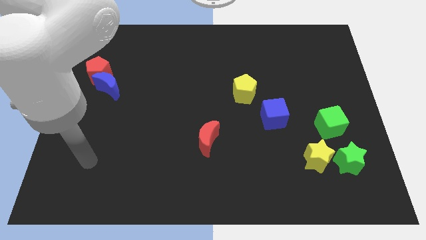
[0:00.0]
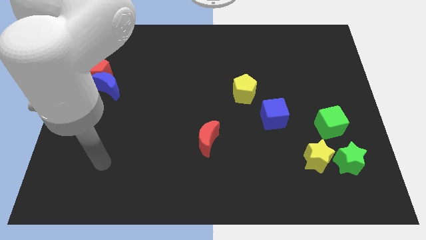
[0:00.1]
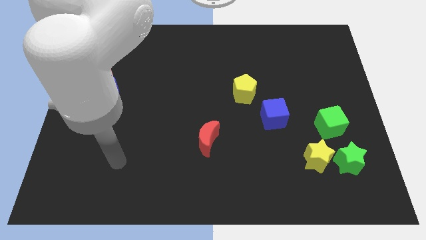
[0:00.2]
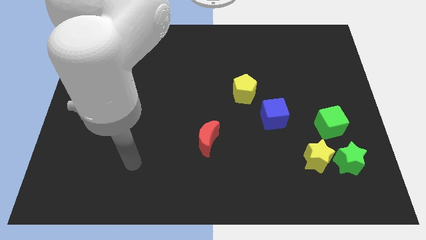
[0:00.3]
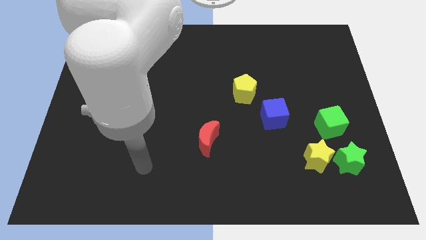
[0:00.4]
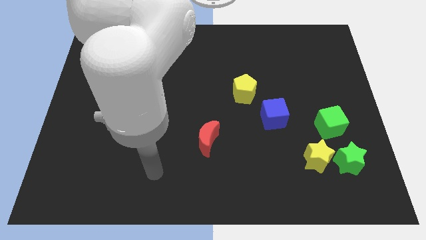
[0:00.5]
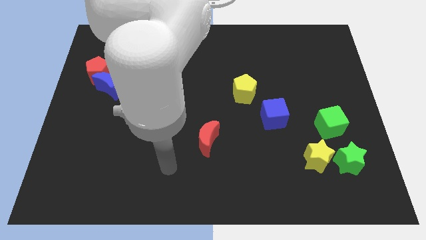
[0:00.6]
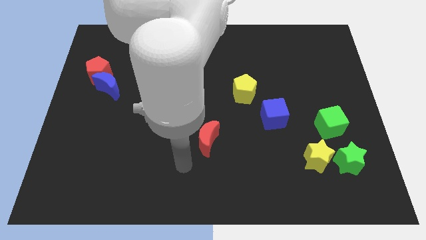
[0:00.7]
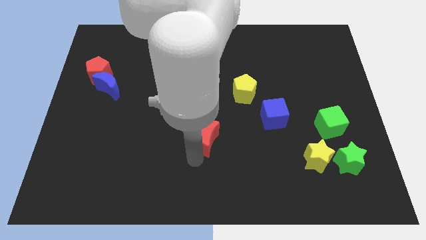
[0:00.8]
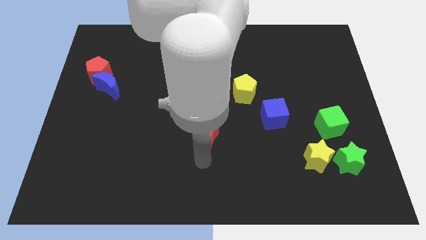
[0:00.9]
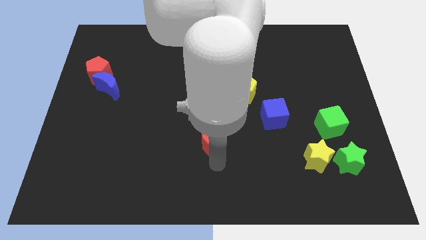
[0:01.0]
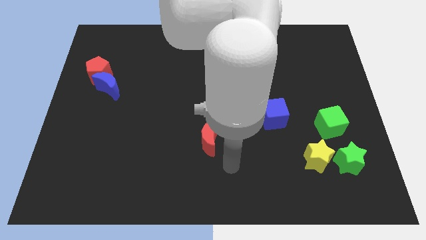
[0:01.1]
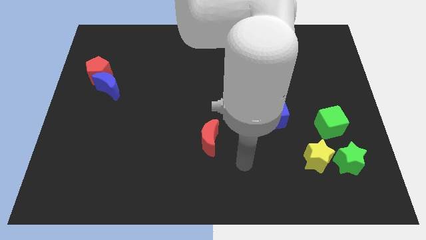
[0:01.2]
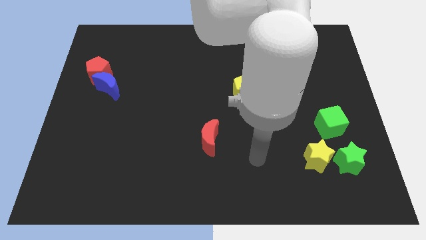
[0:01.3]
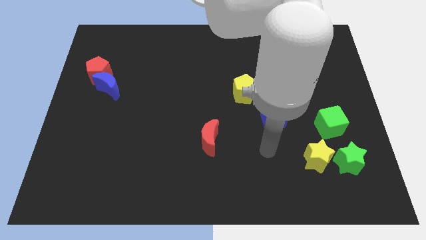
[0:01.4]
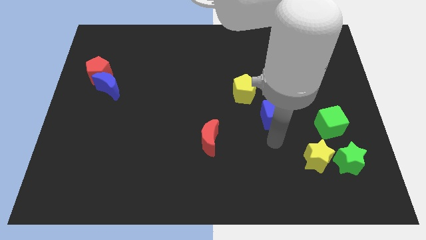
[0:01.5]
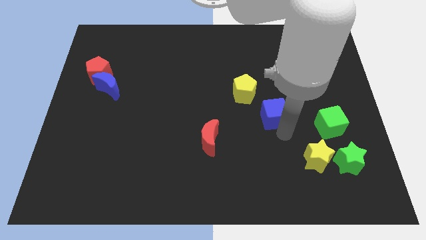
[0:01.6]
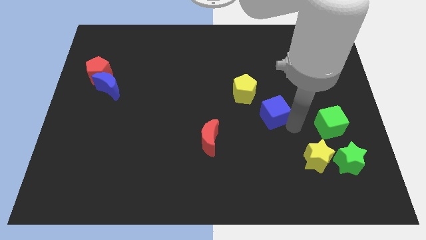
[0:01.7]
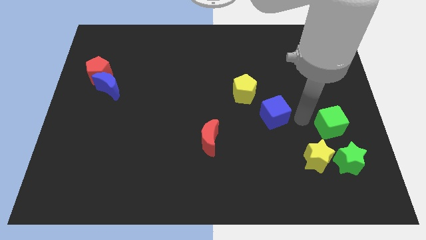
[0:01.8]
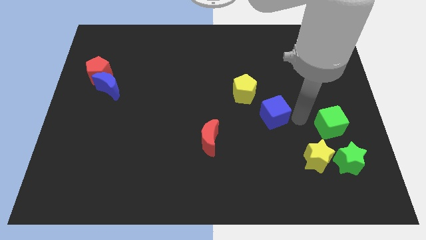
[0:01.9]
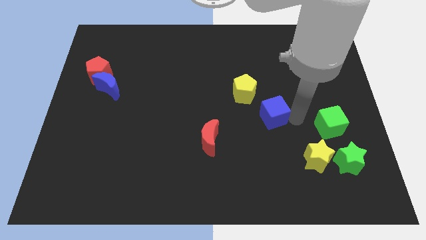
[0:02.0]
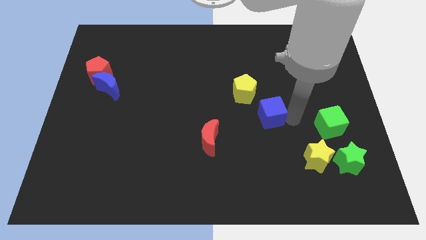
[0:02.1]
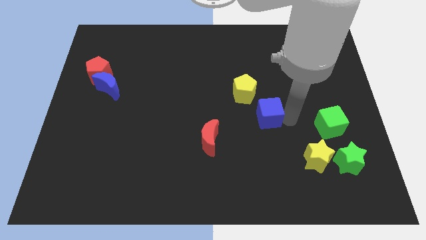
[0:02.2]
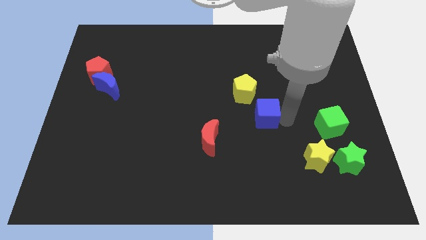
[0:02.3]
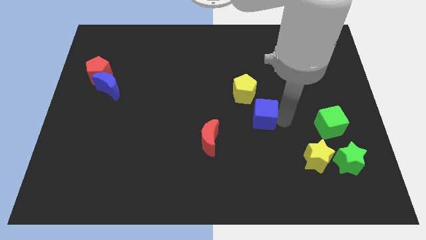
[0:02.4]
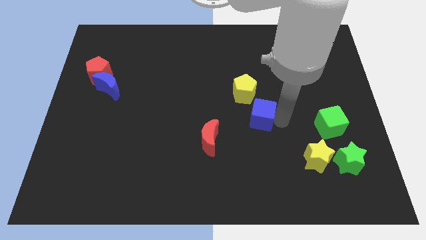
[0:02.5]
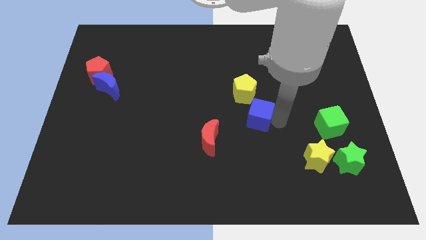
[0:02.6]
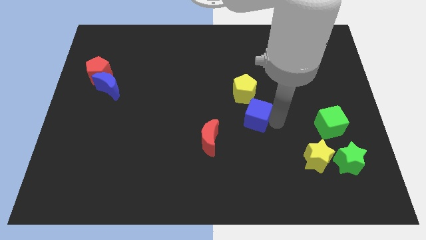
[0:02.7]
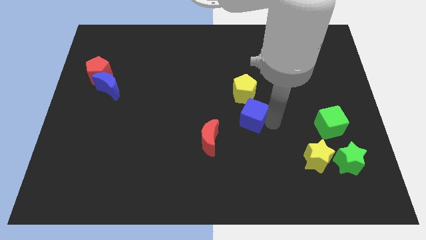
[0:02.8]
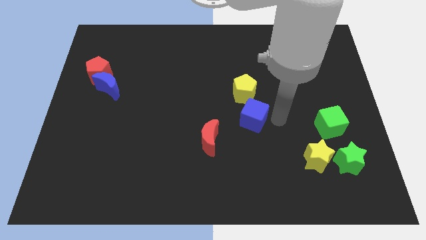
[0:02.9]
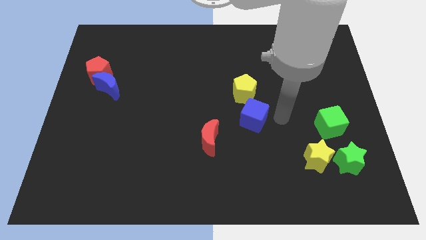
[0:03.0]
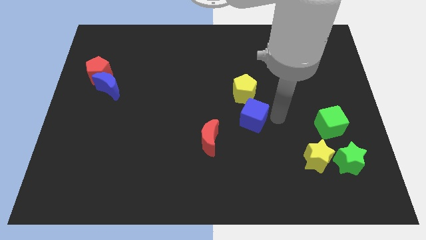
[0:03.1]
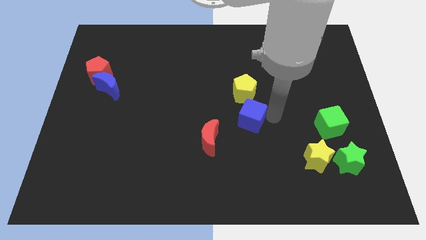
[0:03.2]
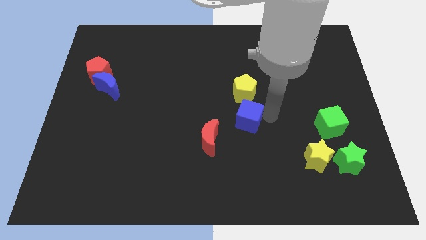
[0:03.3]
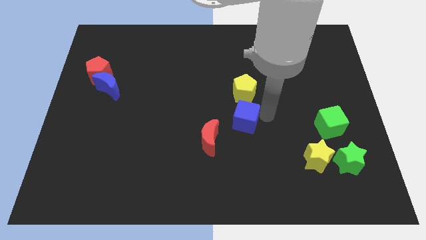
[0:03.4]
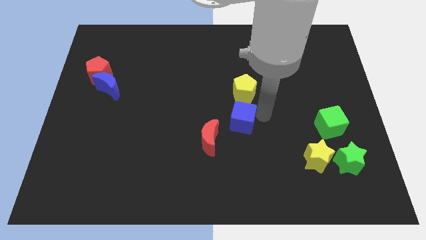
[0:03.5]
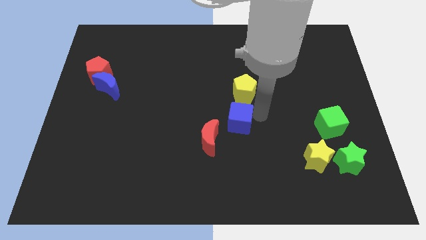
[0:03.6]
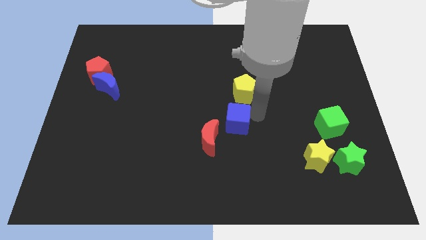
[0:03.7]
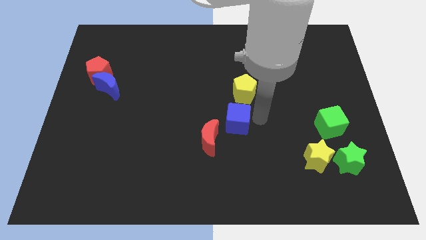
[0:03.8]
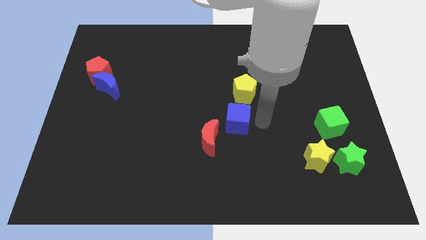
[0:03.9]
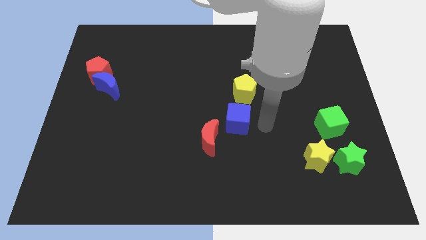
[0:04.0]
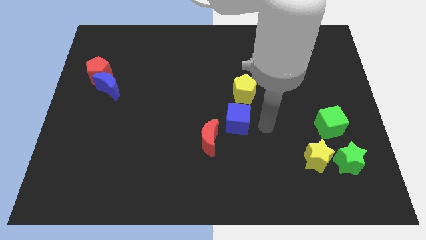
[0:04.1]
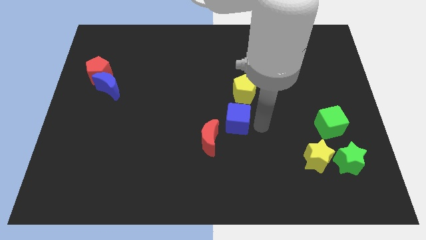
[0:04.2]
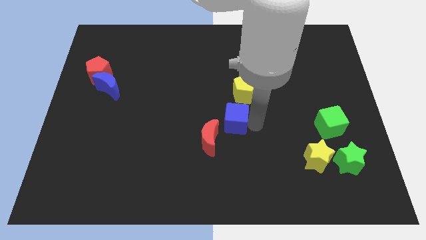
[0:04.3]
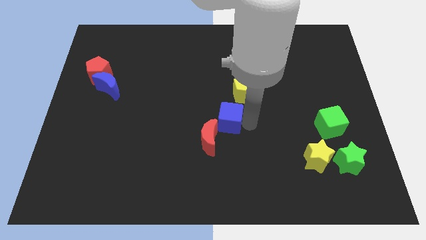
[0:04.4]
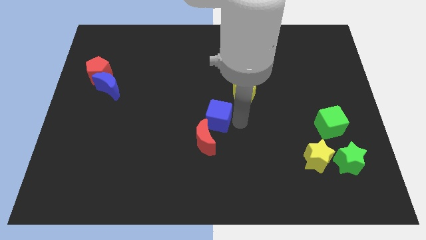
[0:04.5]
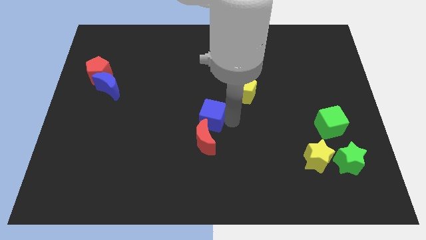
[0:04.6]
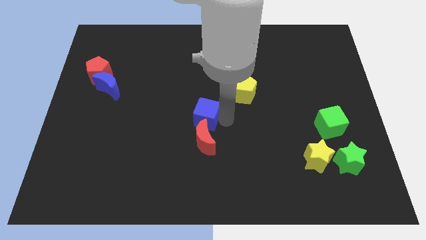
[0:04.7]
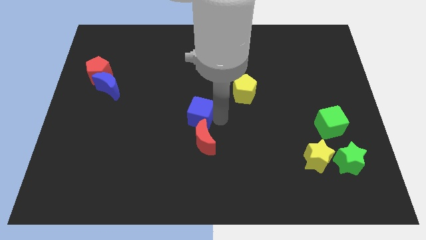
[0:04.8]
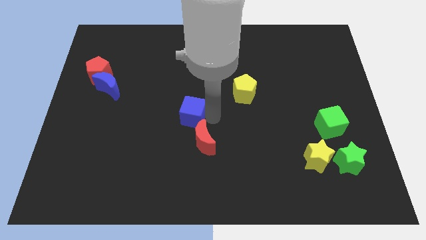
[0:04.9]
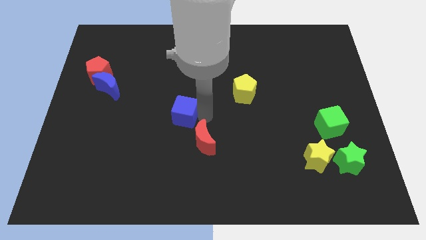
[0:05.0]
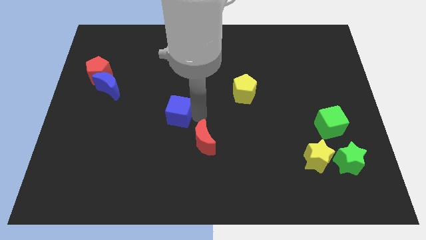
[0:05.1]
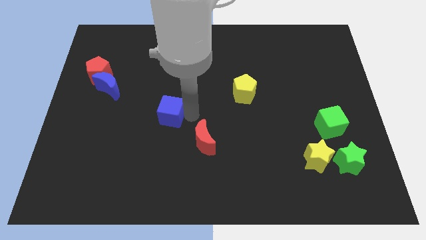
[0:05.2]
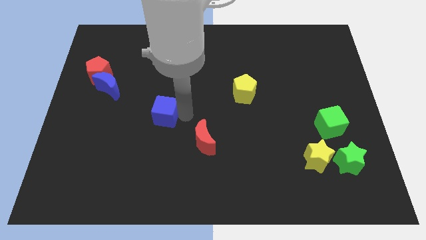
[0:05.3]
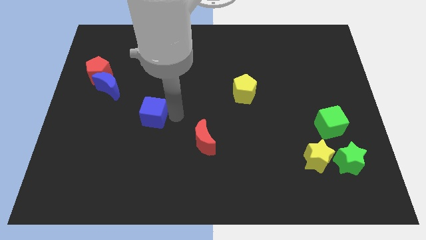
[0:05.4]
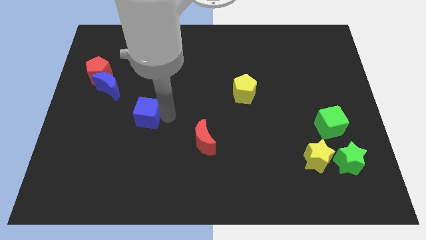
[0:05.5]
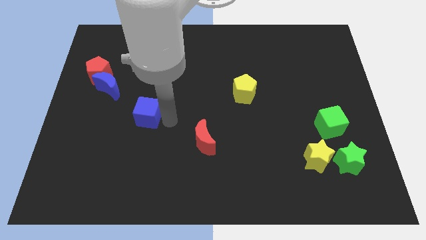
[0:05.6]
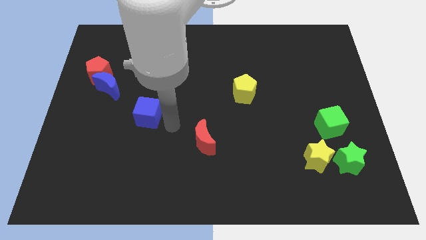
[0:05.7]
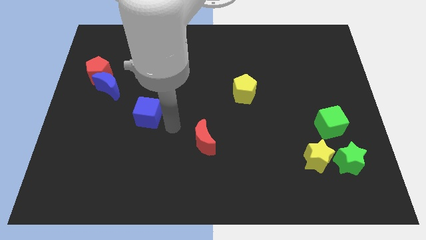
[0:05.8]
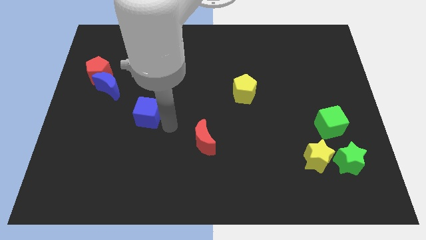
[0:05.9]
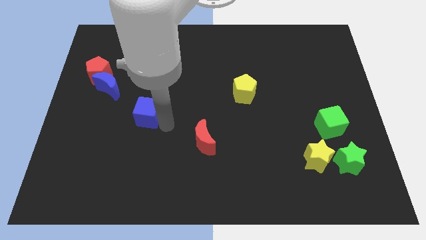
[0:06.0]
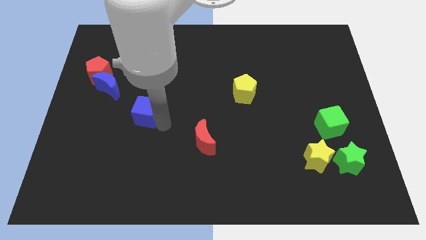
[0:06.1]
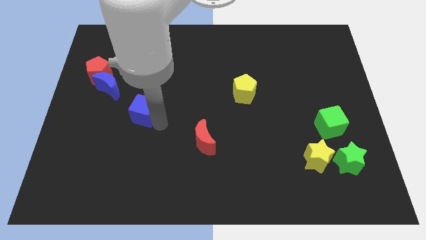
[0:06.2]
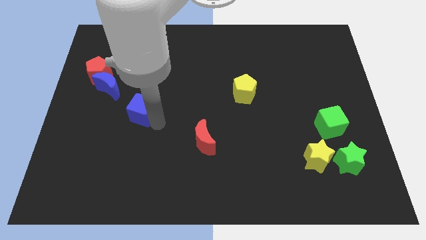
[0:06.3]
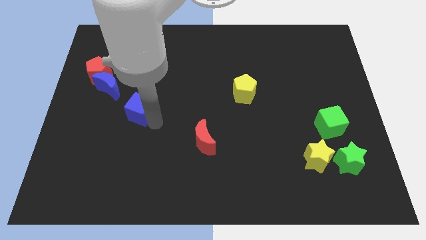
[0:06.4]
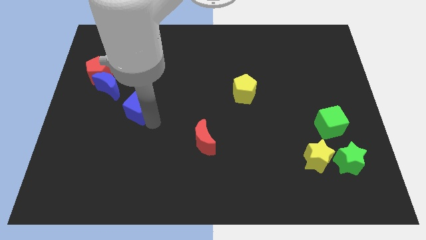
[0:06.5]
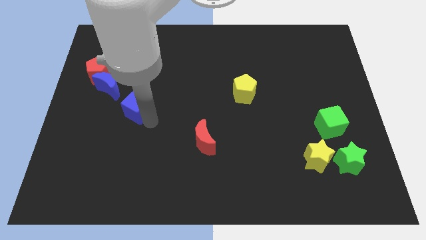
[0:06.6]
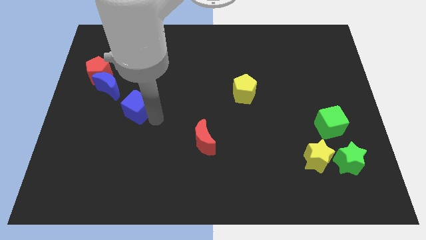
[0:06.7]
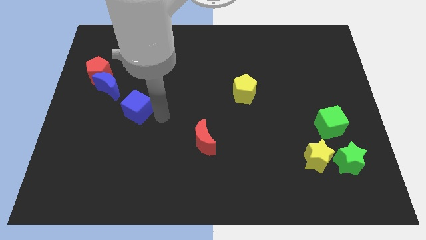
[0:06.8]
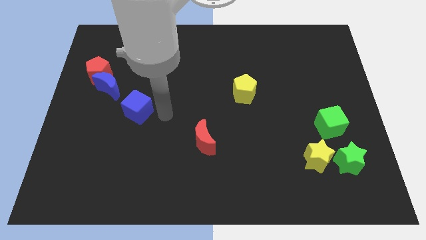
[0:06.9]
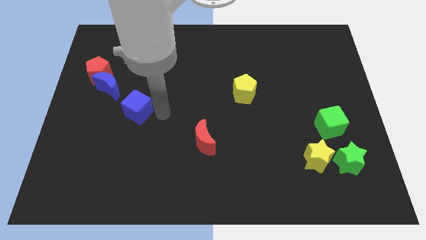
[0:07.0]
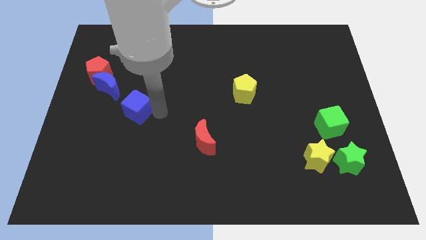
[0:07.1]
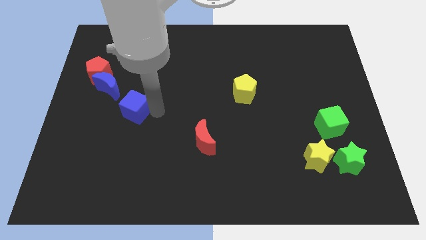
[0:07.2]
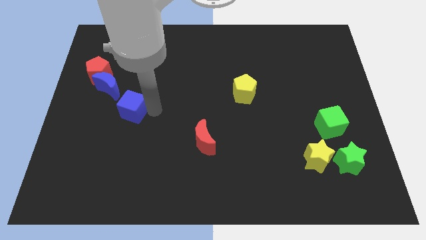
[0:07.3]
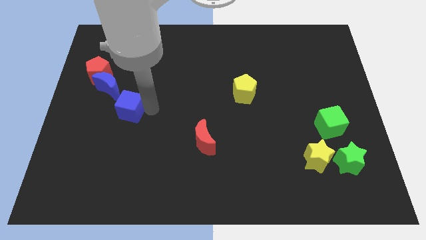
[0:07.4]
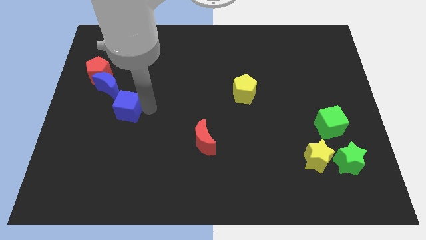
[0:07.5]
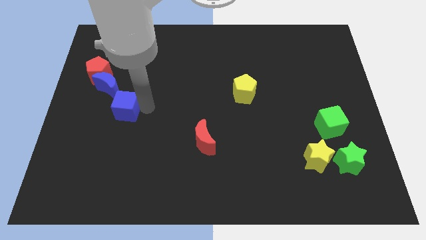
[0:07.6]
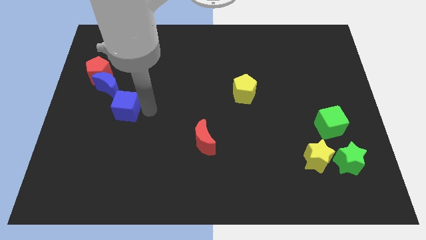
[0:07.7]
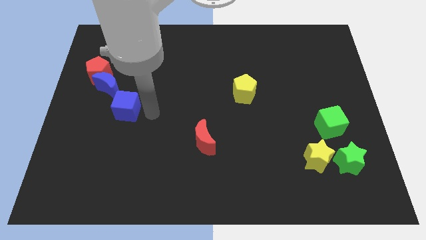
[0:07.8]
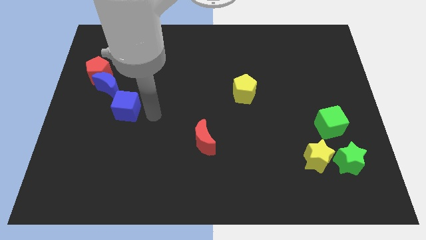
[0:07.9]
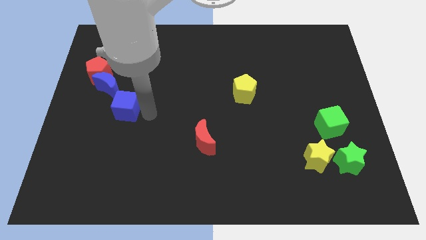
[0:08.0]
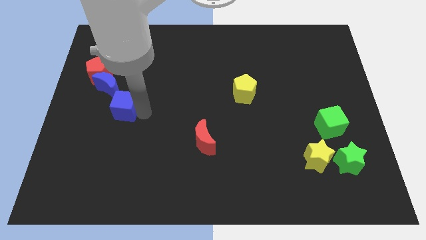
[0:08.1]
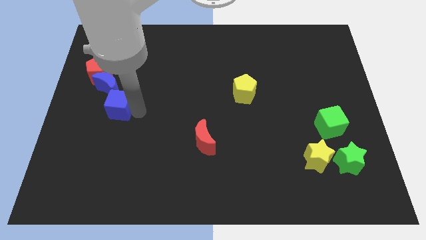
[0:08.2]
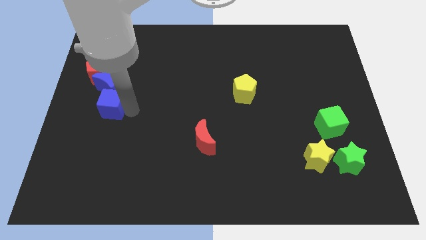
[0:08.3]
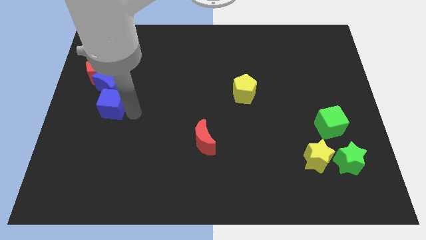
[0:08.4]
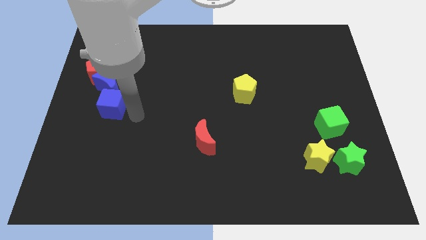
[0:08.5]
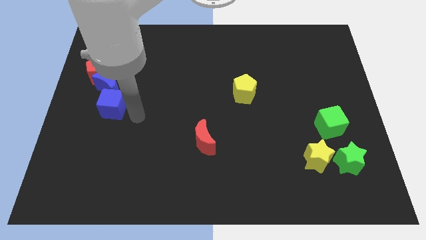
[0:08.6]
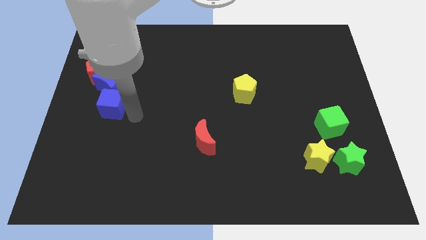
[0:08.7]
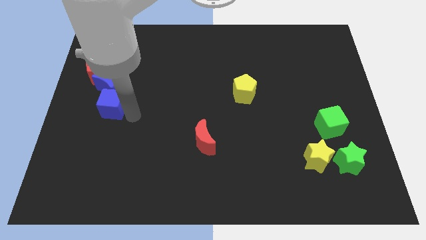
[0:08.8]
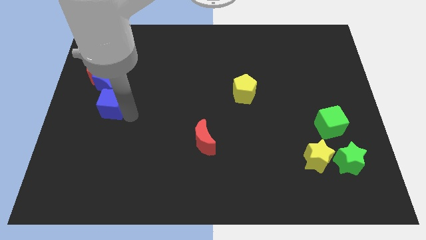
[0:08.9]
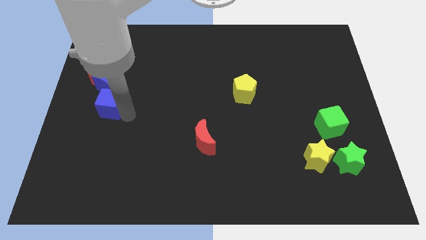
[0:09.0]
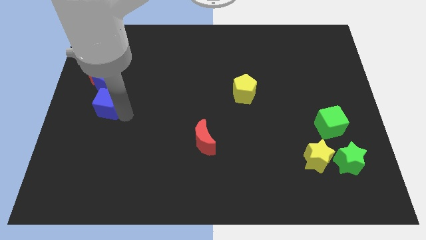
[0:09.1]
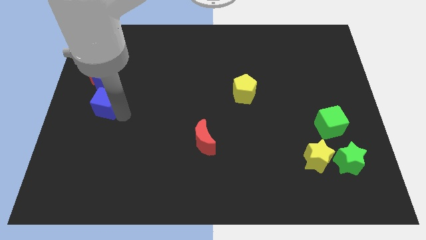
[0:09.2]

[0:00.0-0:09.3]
put the blue cube to the center left
